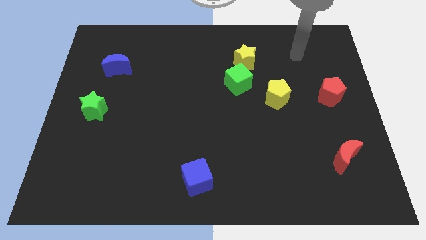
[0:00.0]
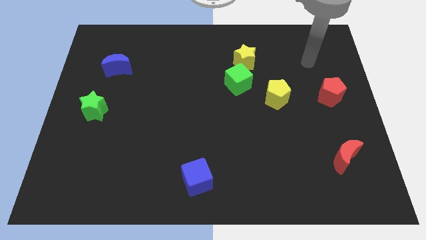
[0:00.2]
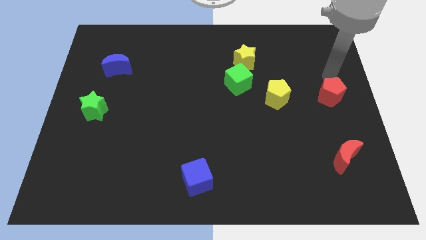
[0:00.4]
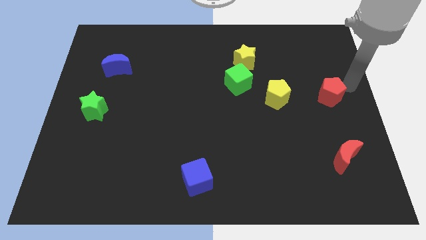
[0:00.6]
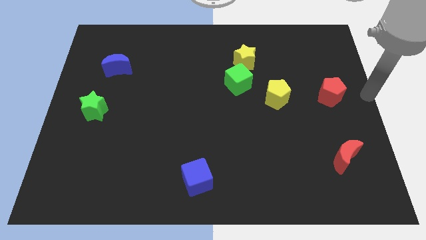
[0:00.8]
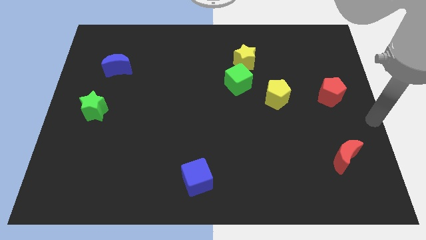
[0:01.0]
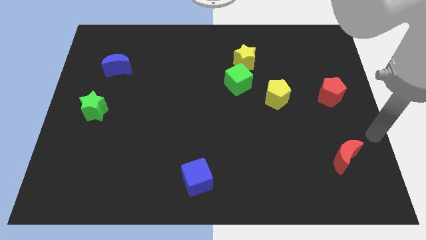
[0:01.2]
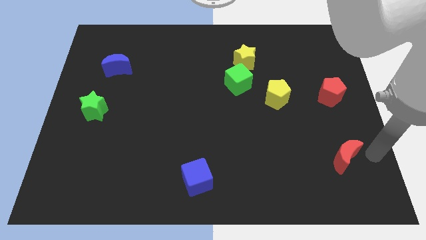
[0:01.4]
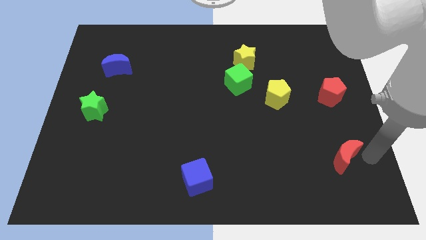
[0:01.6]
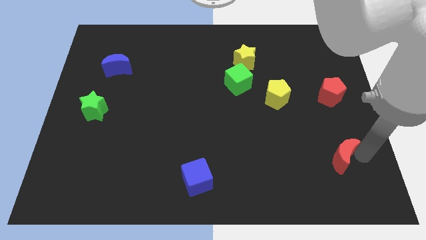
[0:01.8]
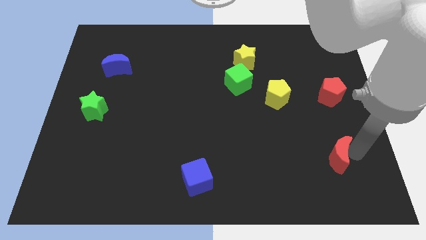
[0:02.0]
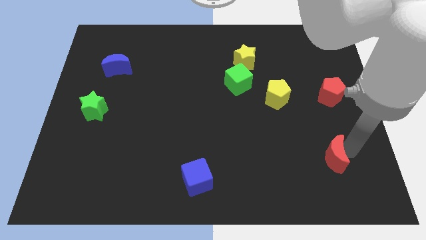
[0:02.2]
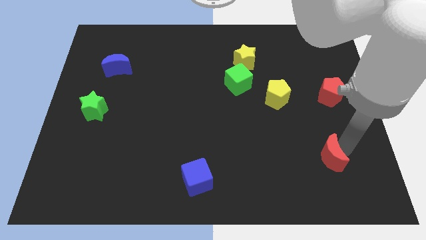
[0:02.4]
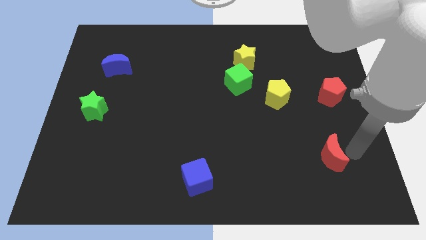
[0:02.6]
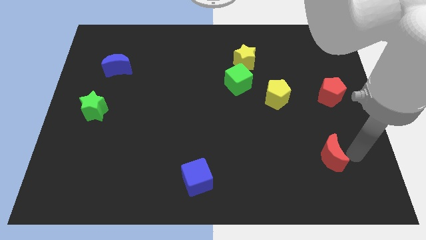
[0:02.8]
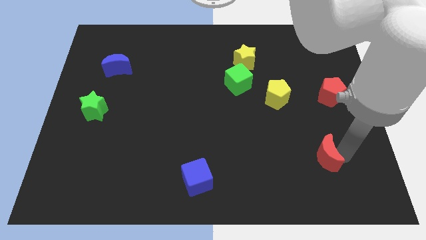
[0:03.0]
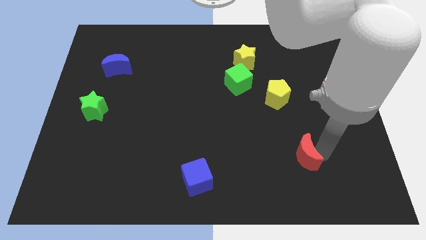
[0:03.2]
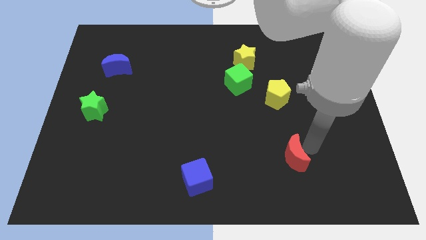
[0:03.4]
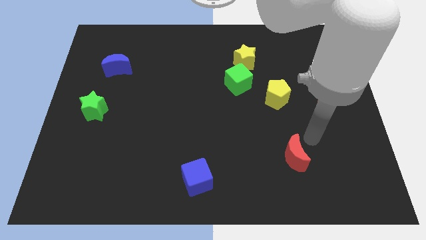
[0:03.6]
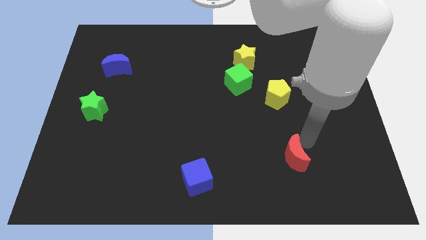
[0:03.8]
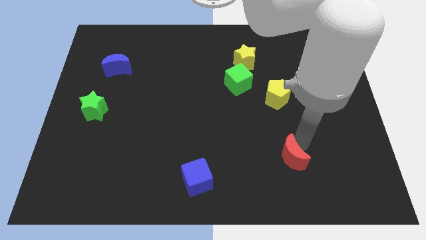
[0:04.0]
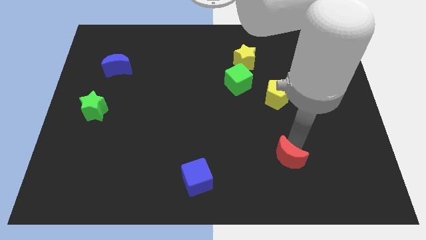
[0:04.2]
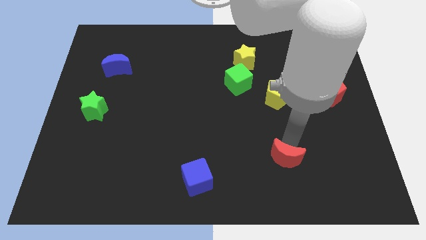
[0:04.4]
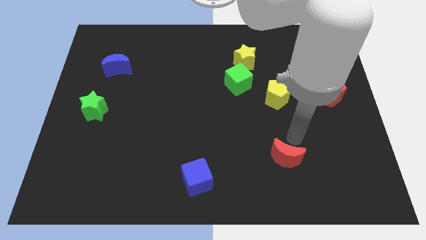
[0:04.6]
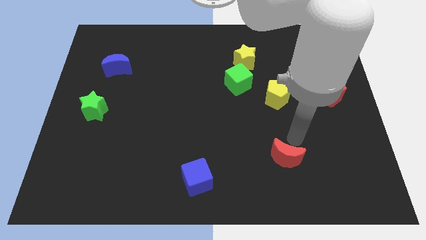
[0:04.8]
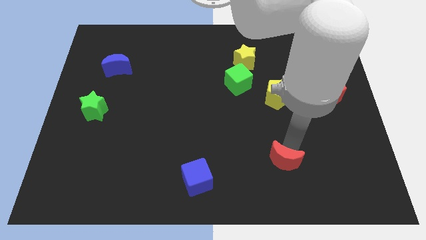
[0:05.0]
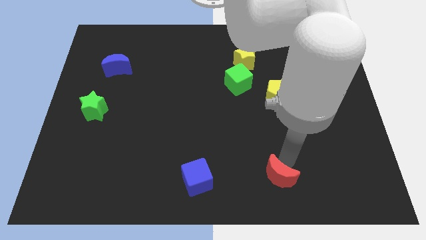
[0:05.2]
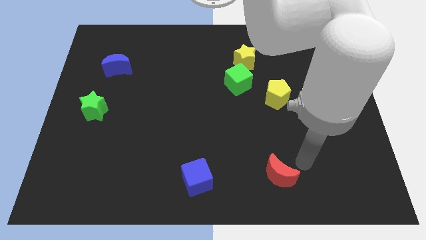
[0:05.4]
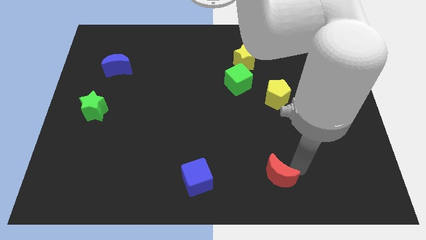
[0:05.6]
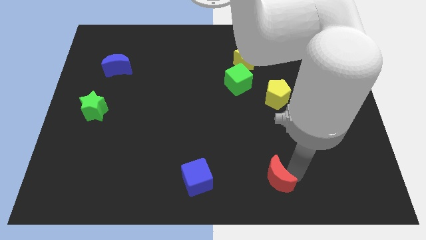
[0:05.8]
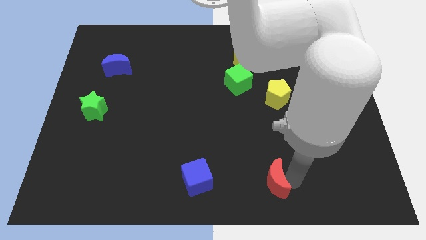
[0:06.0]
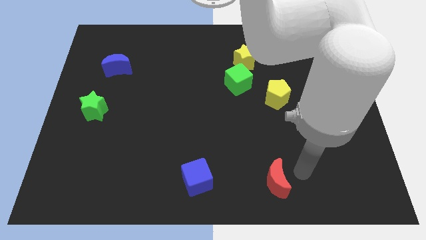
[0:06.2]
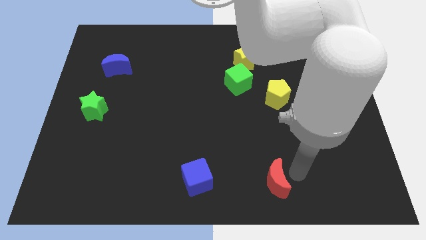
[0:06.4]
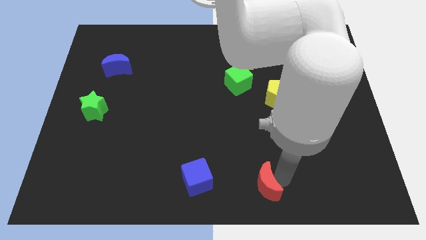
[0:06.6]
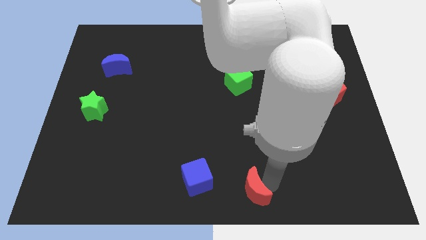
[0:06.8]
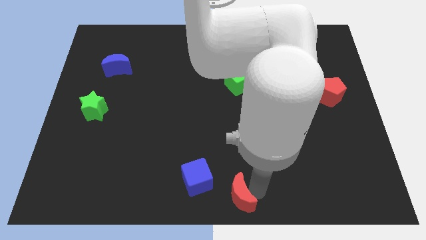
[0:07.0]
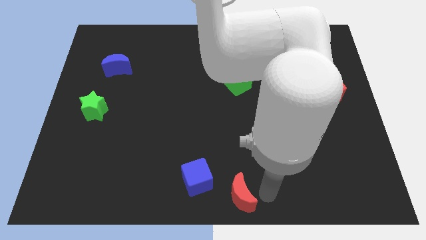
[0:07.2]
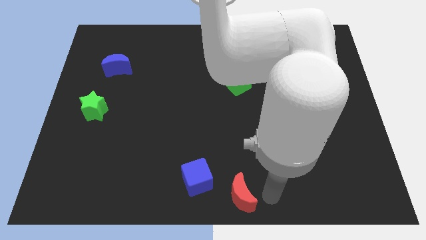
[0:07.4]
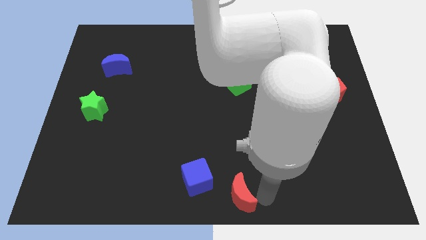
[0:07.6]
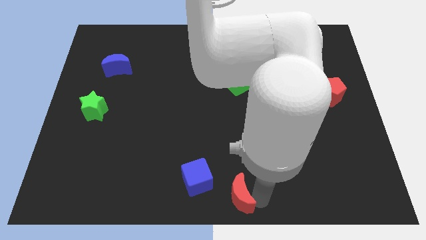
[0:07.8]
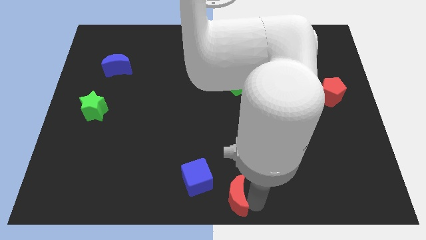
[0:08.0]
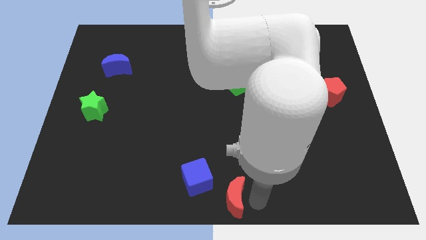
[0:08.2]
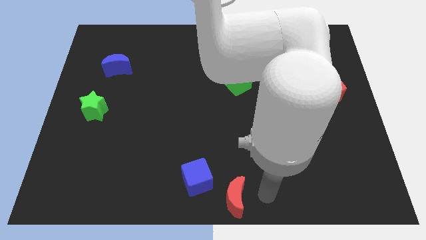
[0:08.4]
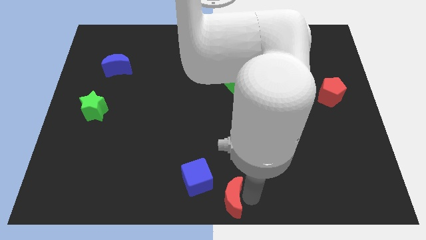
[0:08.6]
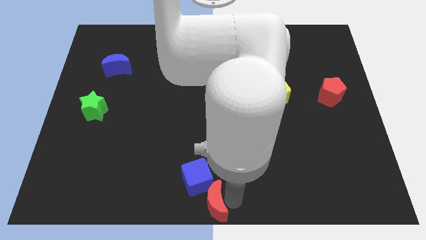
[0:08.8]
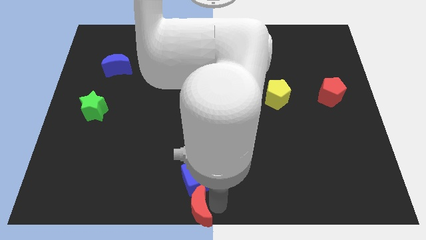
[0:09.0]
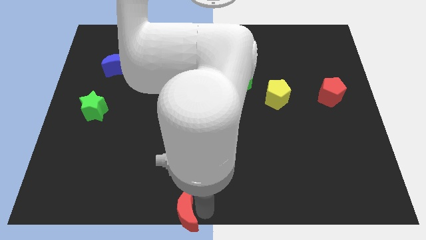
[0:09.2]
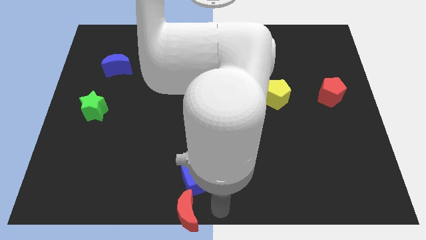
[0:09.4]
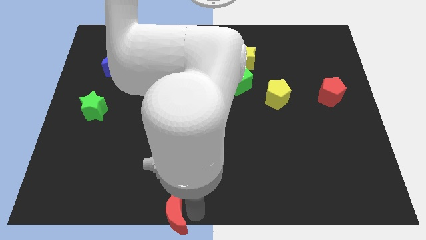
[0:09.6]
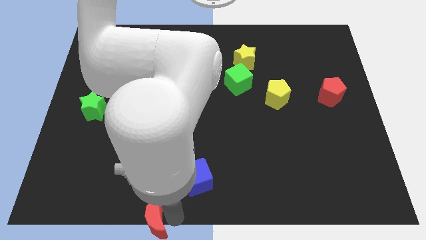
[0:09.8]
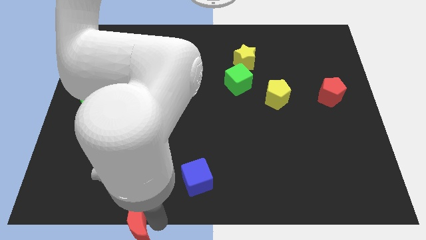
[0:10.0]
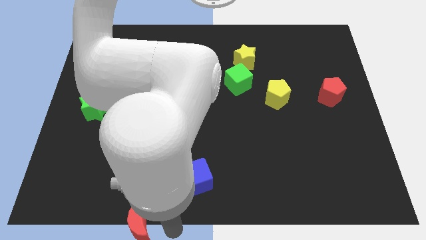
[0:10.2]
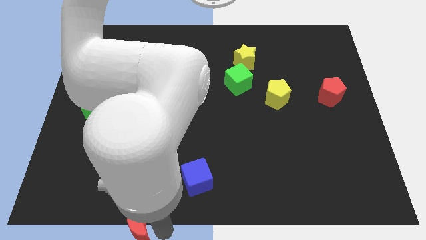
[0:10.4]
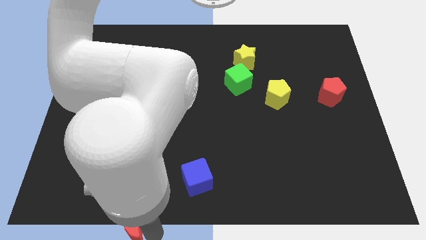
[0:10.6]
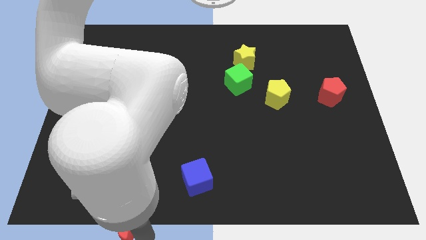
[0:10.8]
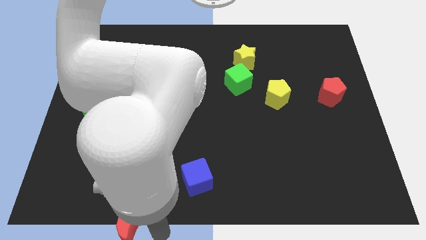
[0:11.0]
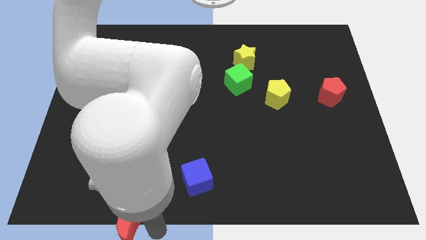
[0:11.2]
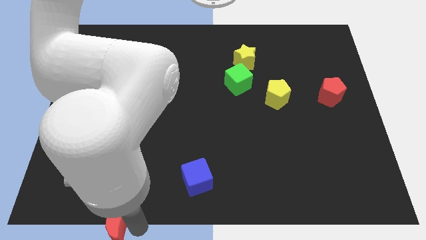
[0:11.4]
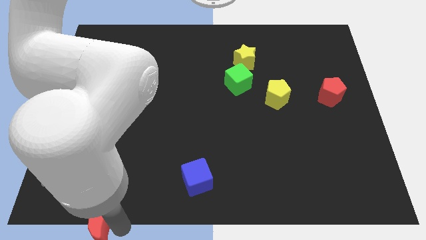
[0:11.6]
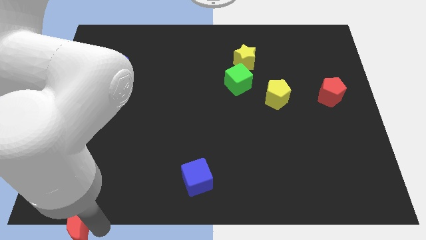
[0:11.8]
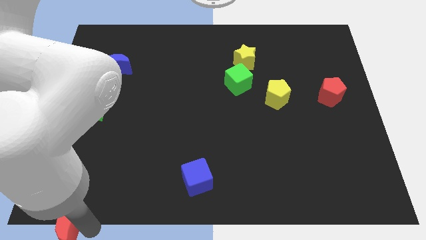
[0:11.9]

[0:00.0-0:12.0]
move the red moon to the bottom left of the board
